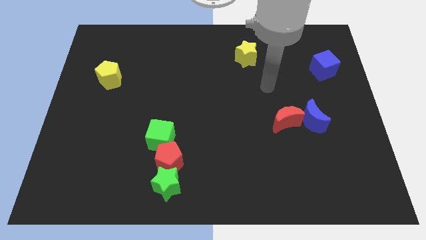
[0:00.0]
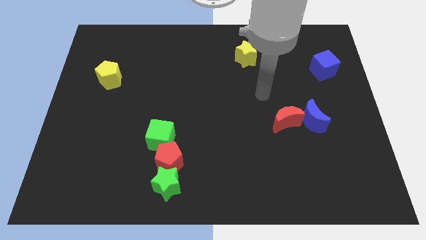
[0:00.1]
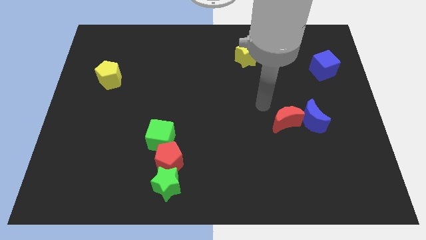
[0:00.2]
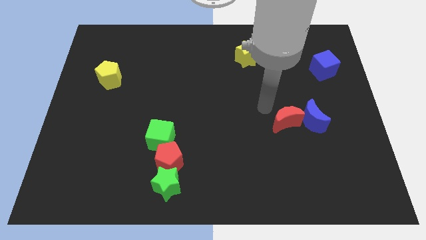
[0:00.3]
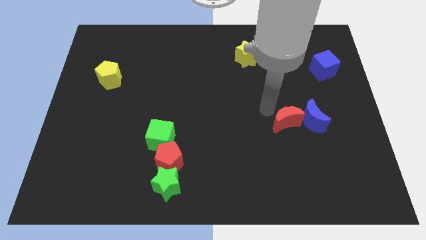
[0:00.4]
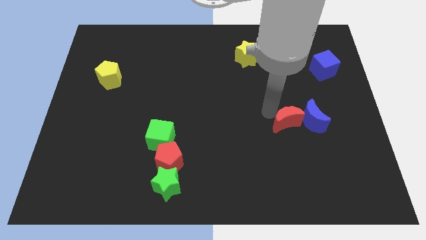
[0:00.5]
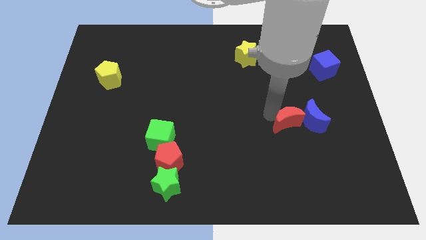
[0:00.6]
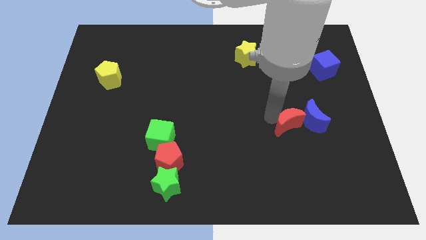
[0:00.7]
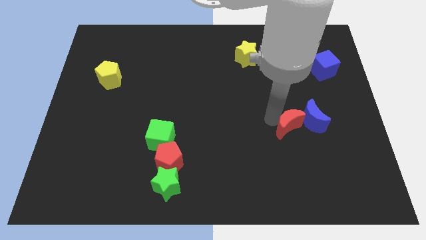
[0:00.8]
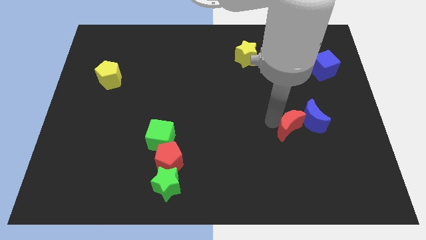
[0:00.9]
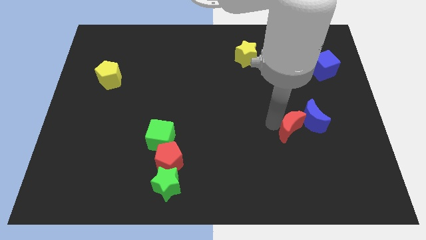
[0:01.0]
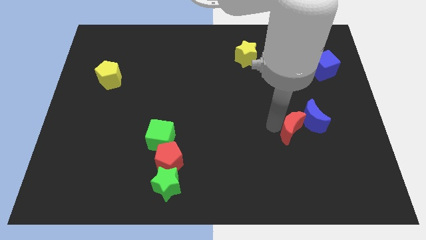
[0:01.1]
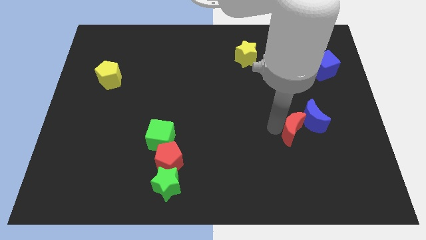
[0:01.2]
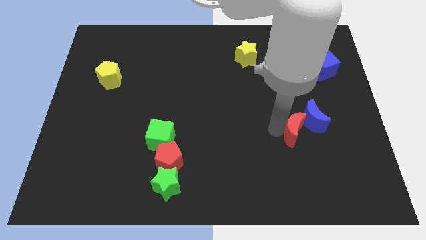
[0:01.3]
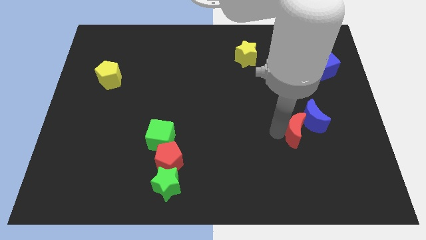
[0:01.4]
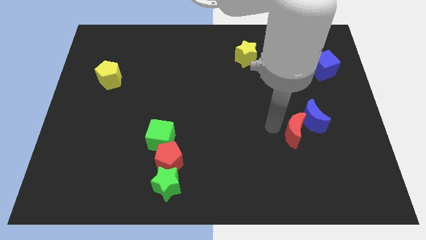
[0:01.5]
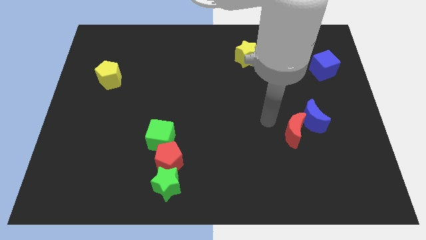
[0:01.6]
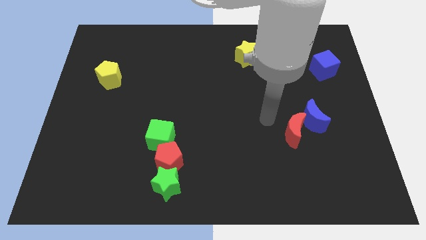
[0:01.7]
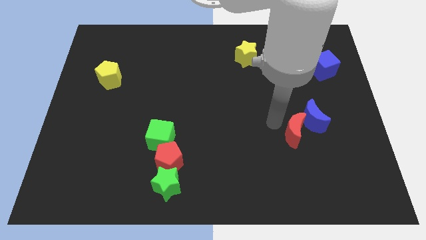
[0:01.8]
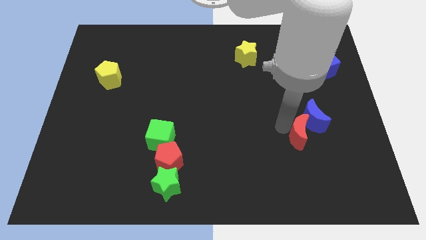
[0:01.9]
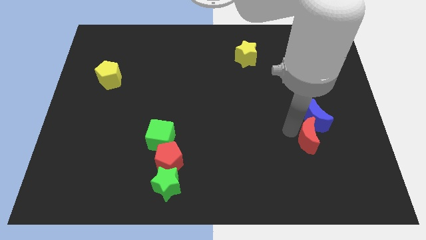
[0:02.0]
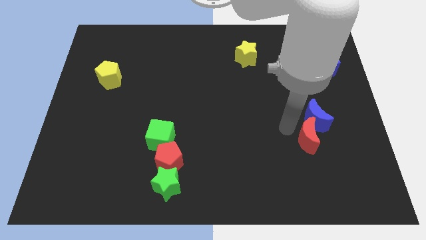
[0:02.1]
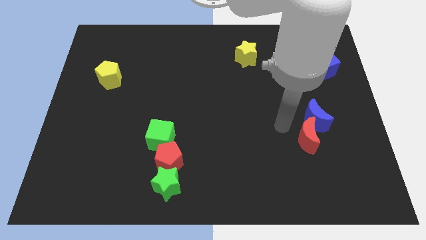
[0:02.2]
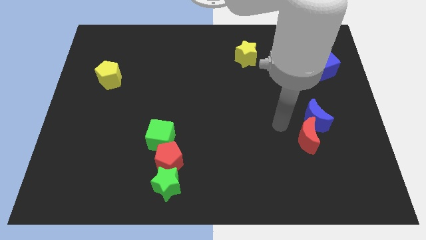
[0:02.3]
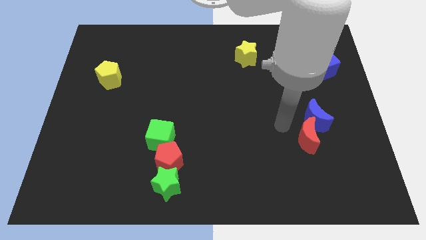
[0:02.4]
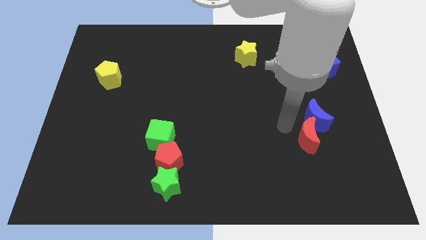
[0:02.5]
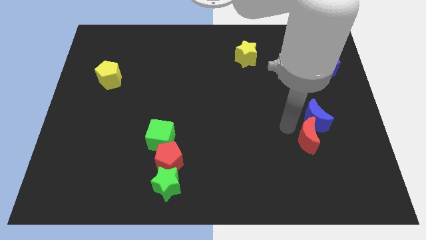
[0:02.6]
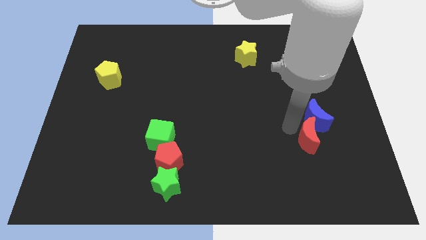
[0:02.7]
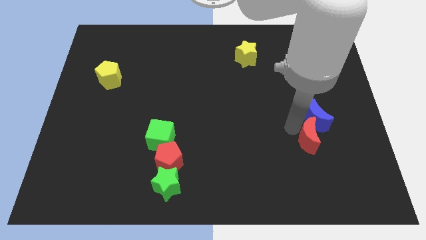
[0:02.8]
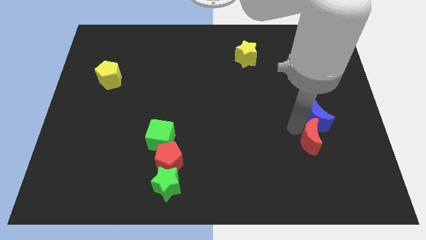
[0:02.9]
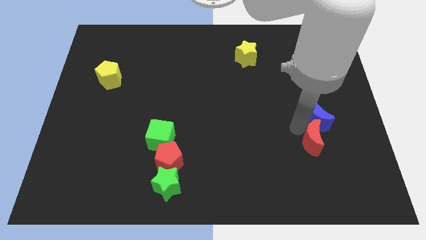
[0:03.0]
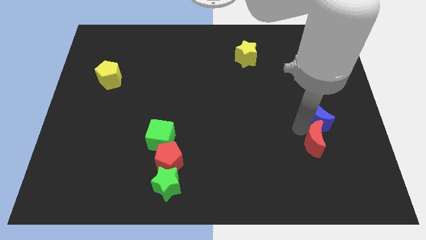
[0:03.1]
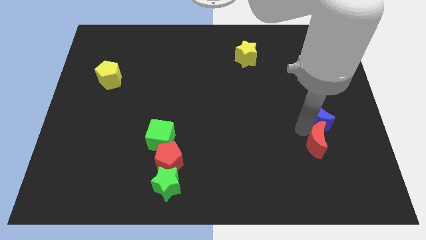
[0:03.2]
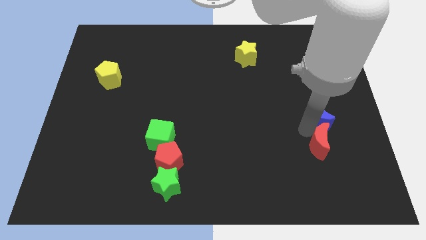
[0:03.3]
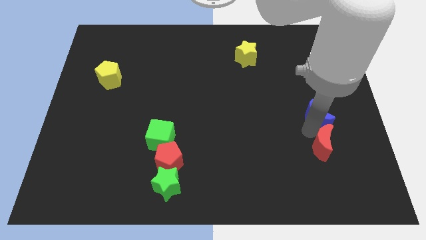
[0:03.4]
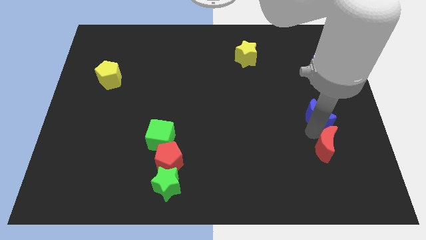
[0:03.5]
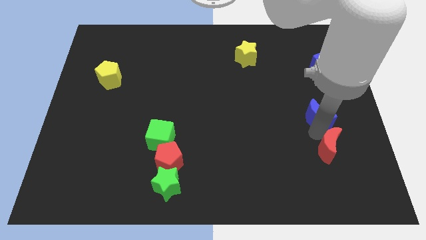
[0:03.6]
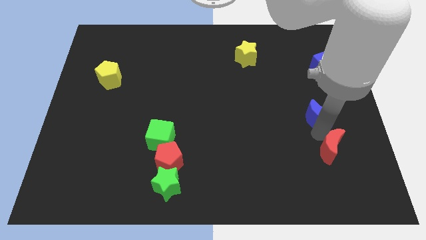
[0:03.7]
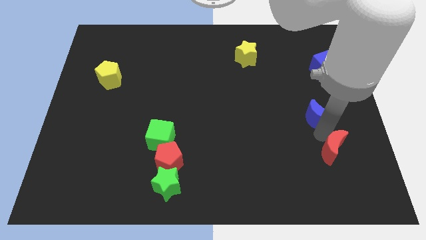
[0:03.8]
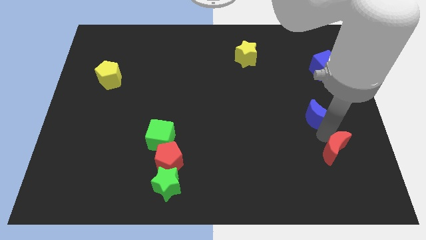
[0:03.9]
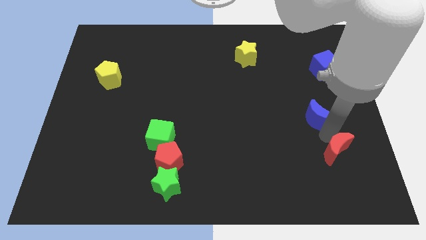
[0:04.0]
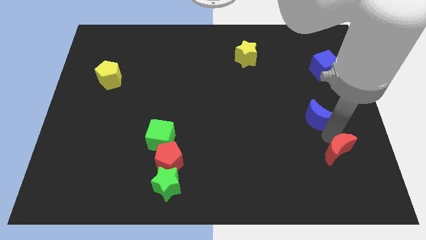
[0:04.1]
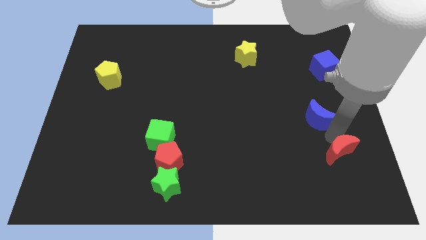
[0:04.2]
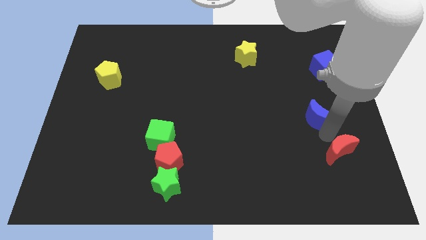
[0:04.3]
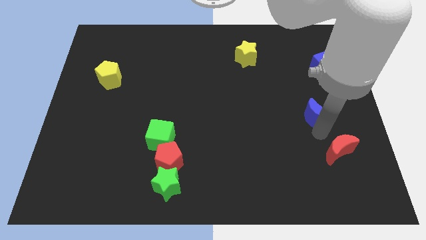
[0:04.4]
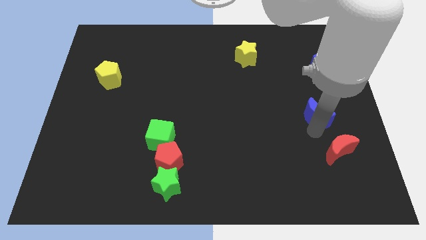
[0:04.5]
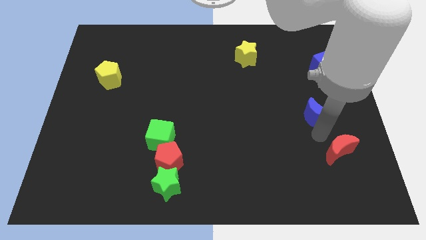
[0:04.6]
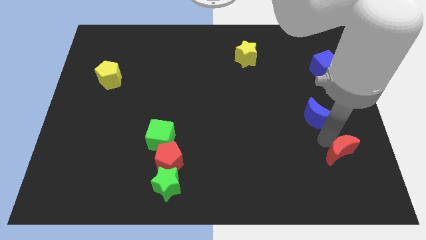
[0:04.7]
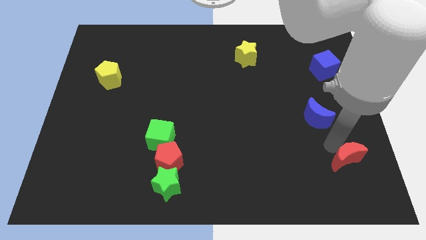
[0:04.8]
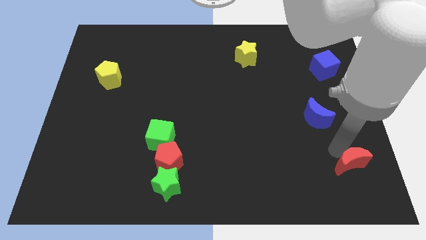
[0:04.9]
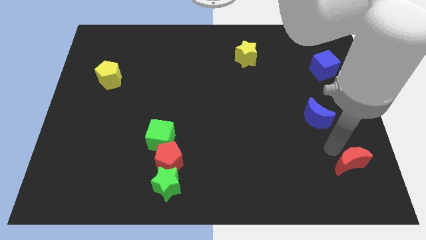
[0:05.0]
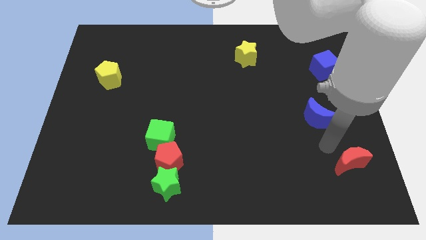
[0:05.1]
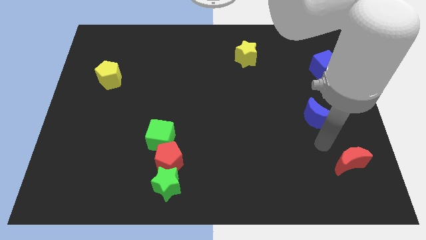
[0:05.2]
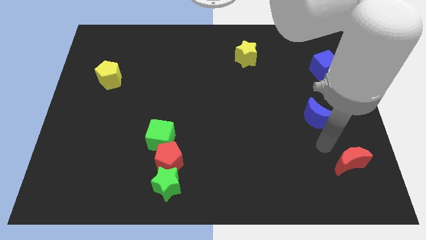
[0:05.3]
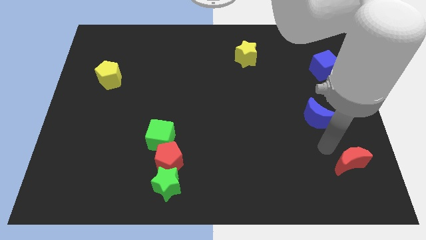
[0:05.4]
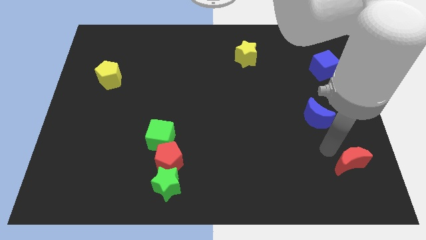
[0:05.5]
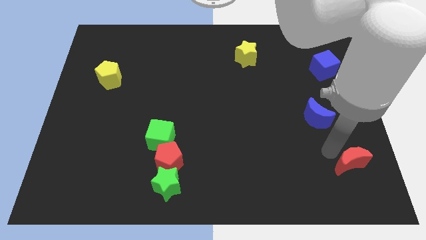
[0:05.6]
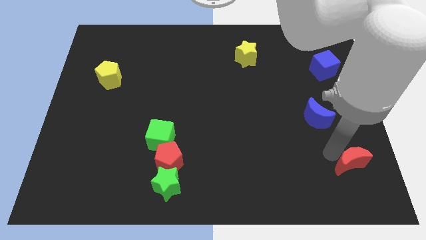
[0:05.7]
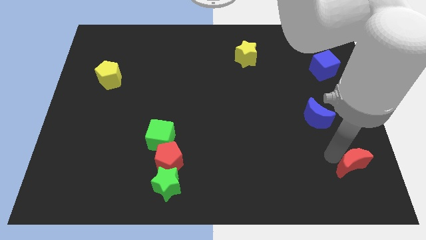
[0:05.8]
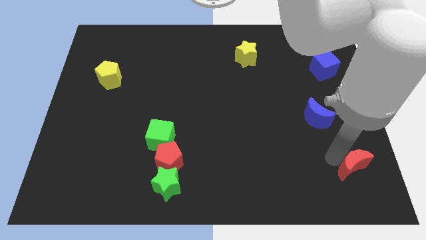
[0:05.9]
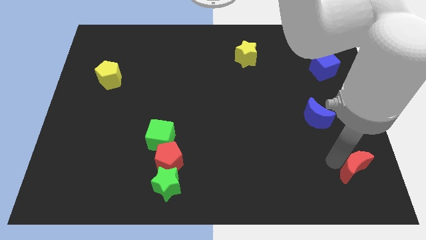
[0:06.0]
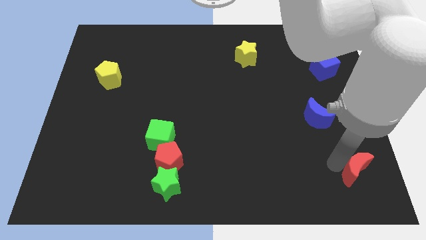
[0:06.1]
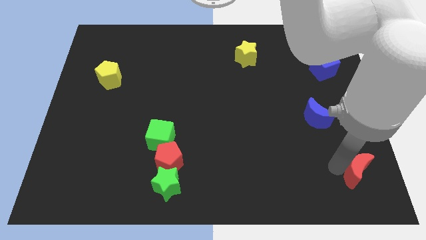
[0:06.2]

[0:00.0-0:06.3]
move the red moon to the lower right corner

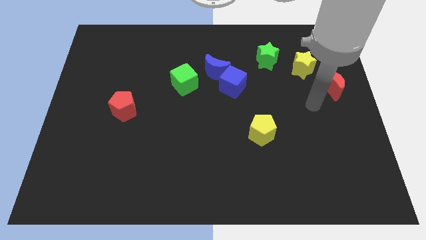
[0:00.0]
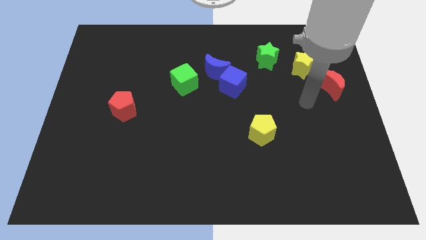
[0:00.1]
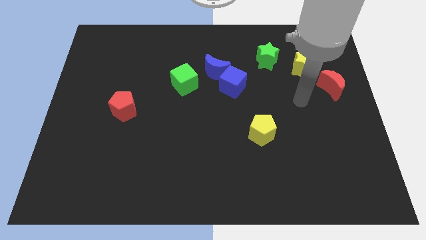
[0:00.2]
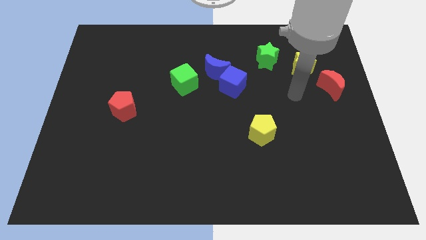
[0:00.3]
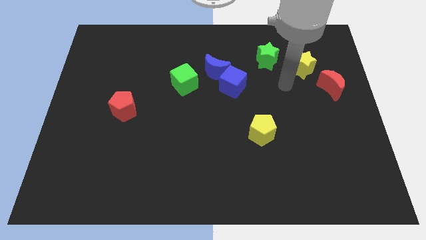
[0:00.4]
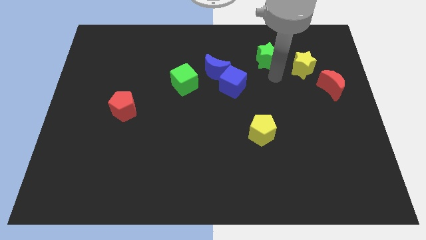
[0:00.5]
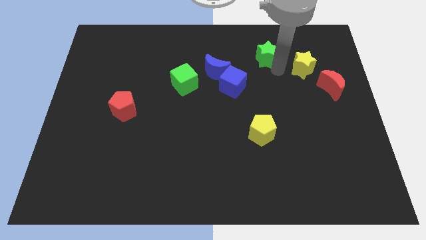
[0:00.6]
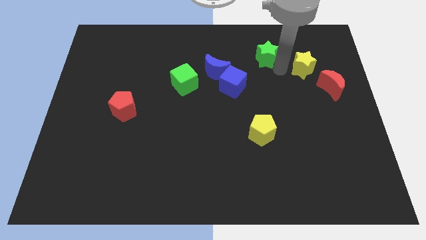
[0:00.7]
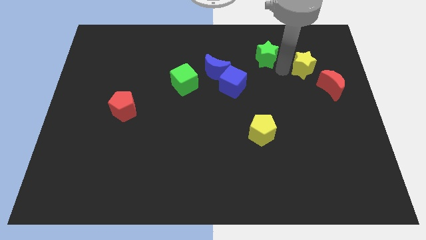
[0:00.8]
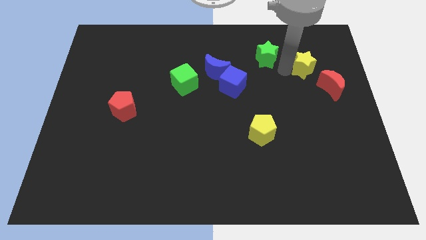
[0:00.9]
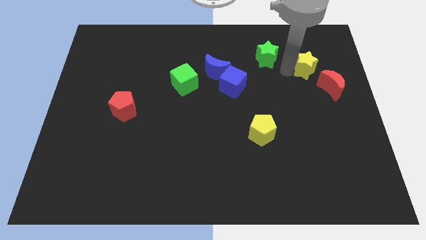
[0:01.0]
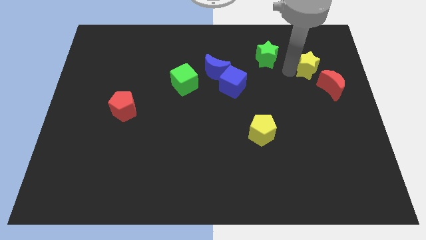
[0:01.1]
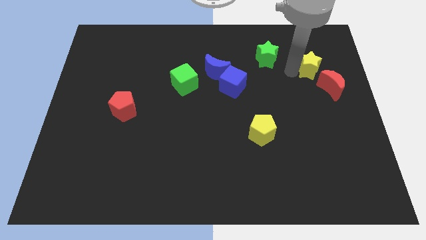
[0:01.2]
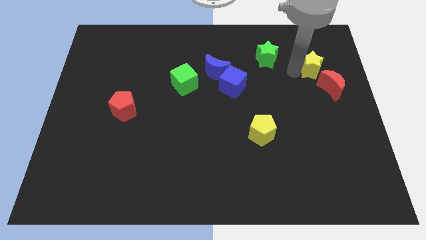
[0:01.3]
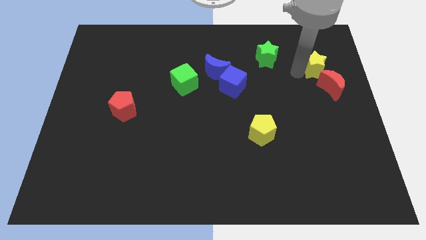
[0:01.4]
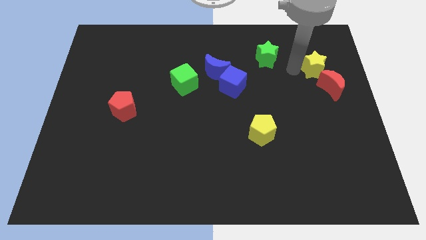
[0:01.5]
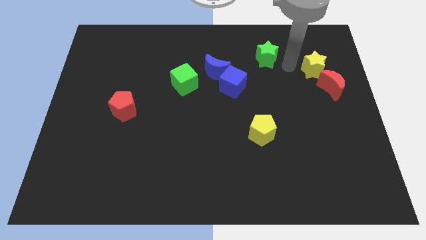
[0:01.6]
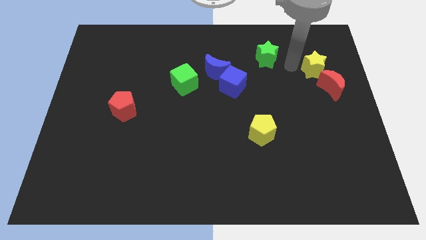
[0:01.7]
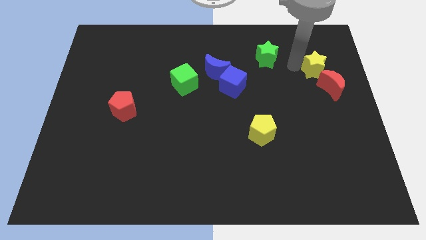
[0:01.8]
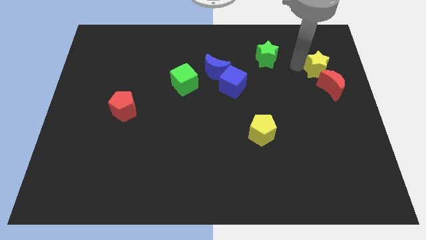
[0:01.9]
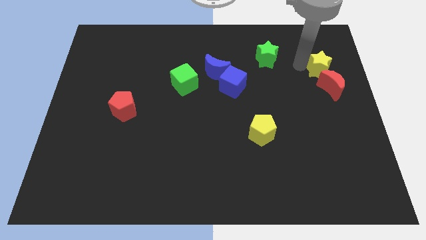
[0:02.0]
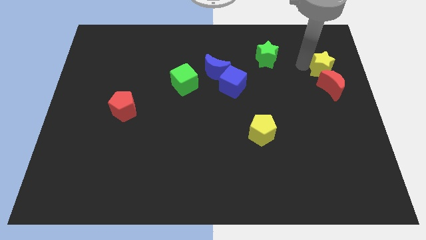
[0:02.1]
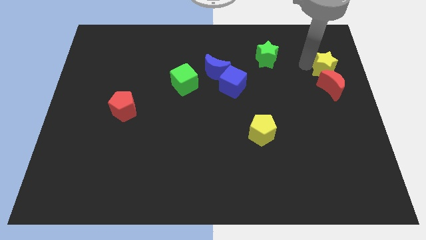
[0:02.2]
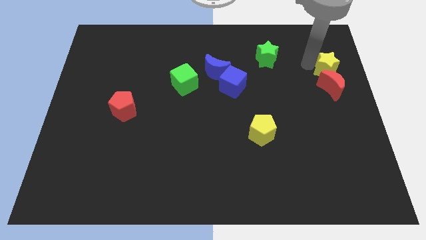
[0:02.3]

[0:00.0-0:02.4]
push the yellow star to the right side
